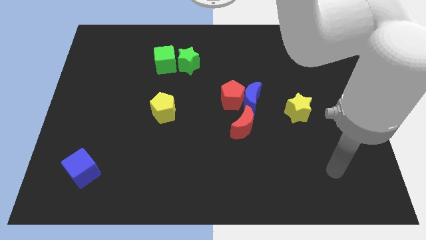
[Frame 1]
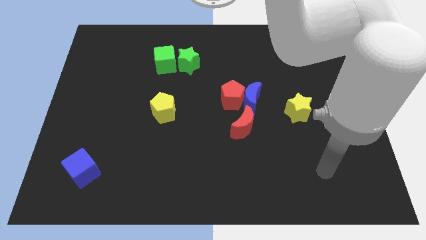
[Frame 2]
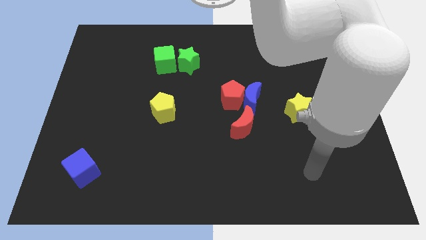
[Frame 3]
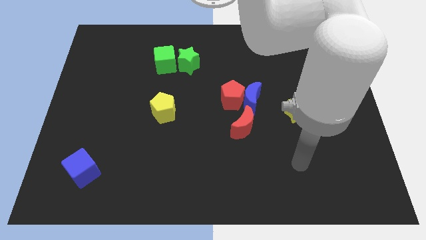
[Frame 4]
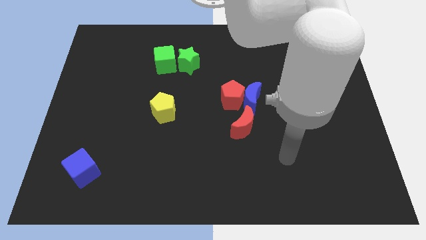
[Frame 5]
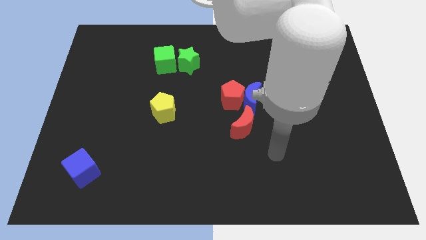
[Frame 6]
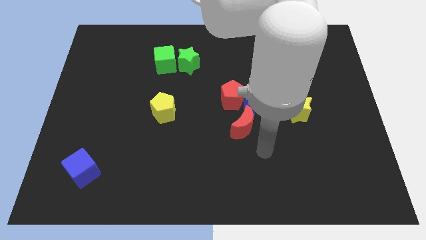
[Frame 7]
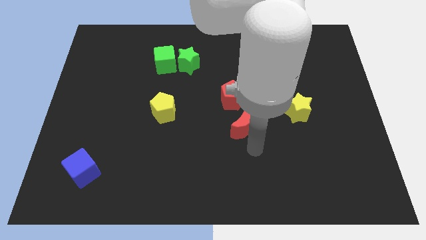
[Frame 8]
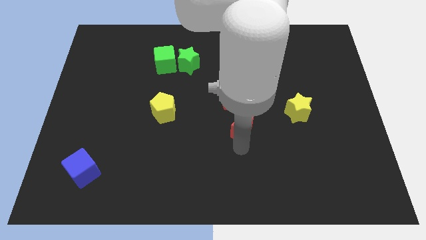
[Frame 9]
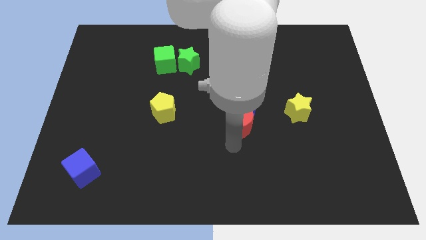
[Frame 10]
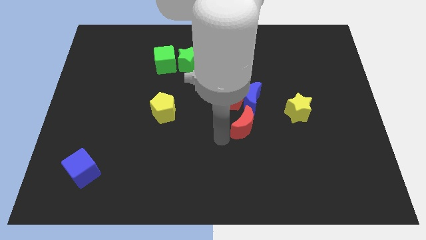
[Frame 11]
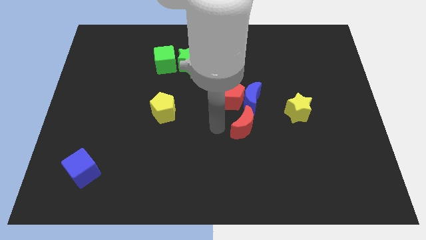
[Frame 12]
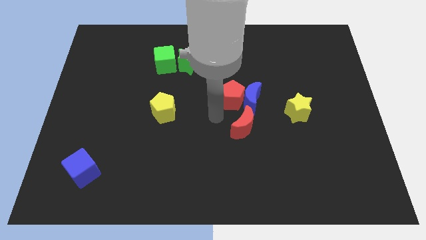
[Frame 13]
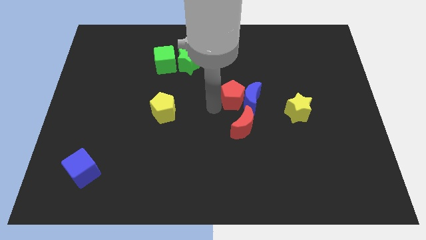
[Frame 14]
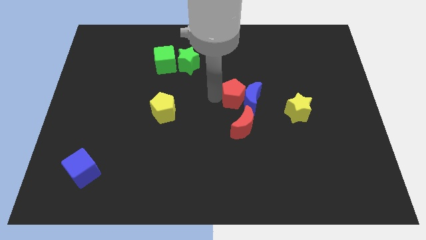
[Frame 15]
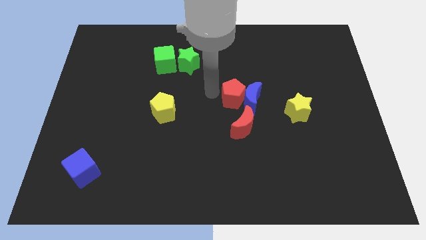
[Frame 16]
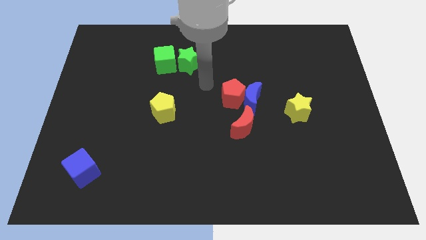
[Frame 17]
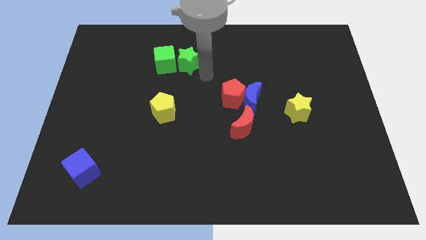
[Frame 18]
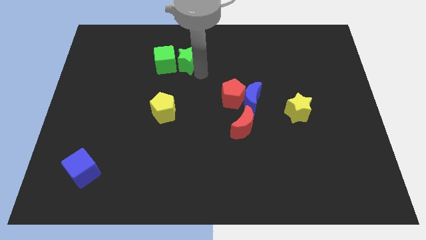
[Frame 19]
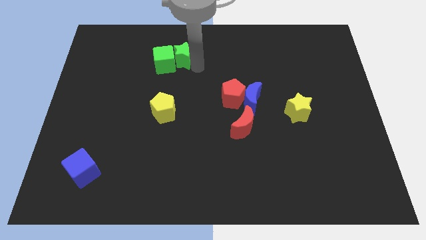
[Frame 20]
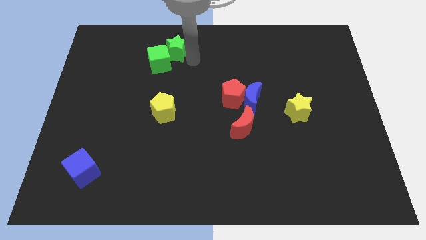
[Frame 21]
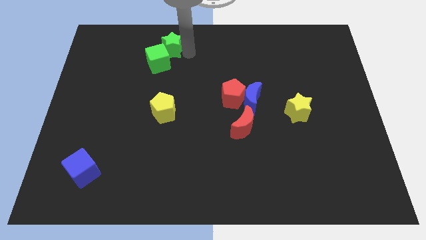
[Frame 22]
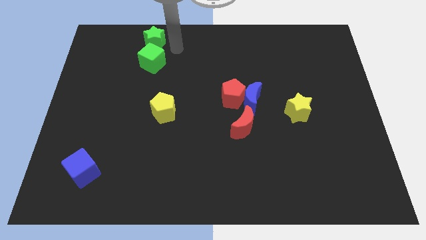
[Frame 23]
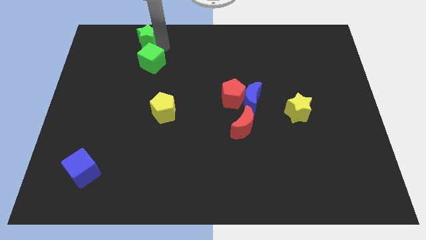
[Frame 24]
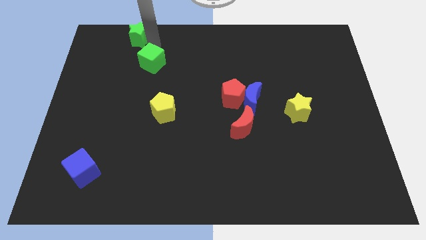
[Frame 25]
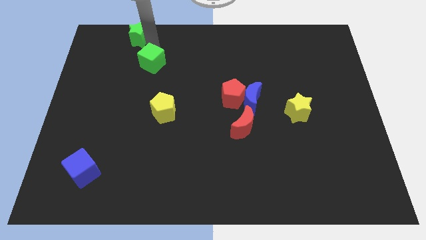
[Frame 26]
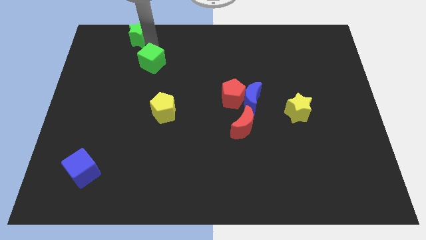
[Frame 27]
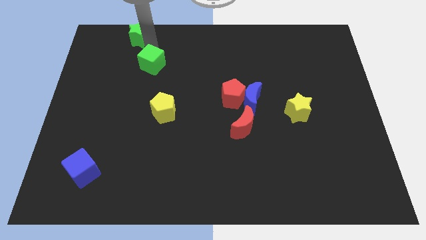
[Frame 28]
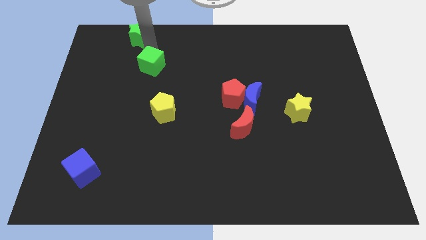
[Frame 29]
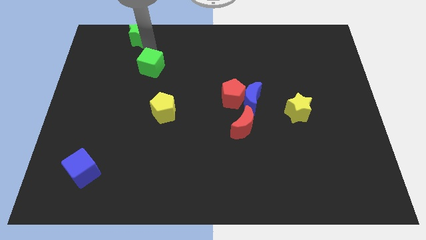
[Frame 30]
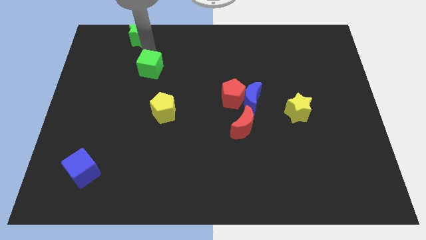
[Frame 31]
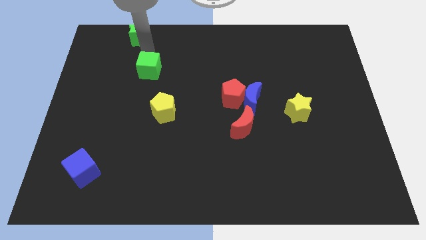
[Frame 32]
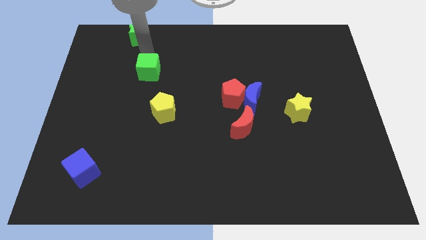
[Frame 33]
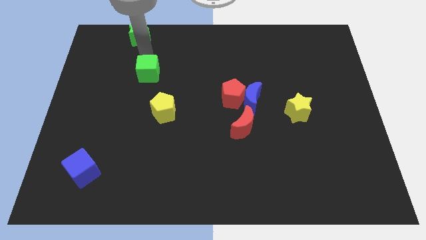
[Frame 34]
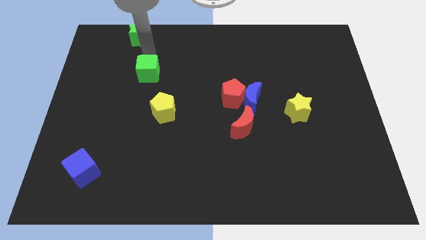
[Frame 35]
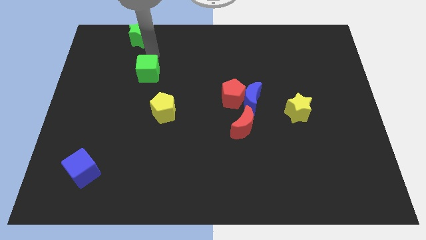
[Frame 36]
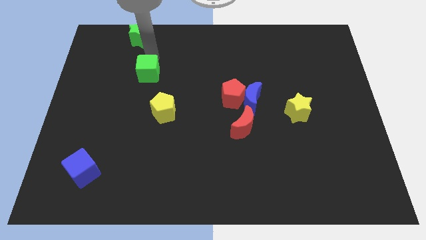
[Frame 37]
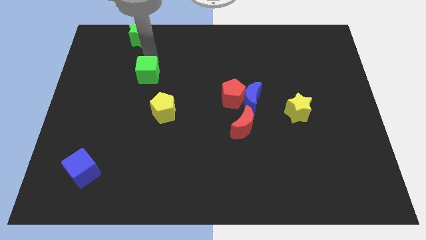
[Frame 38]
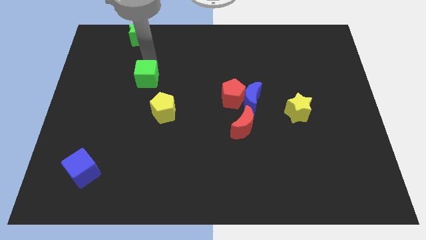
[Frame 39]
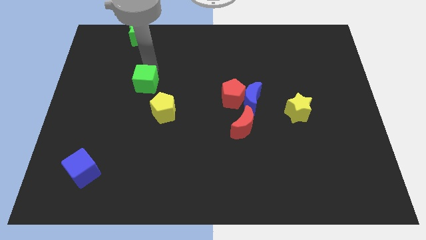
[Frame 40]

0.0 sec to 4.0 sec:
push the green cube downwards and to the left a bit

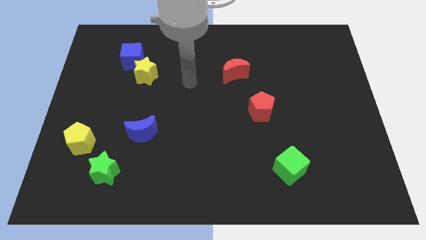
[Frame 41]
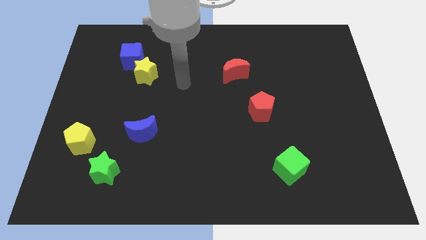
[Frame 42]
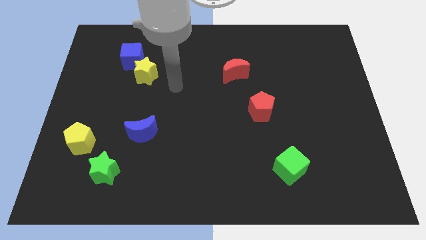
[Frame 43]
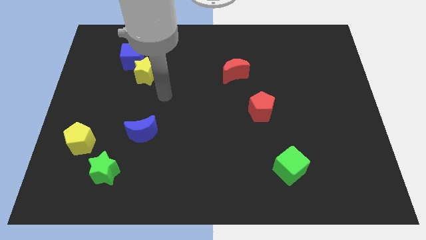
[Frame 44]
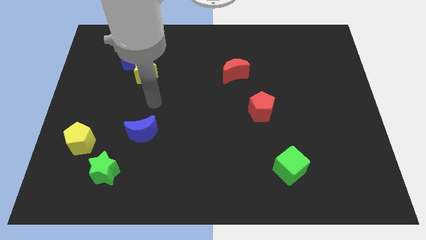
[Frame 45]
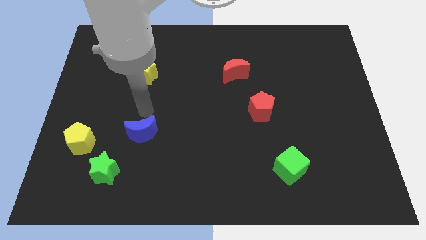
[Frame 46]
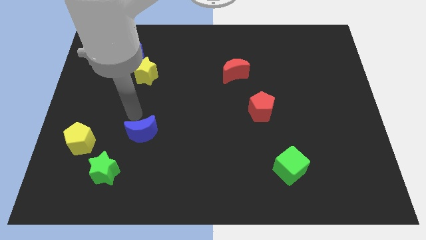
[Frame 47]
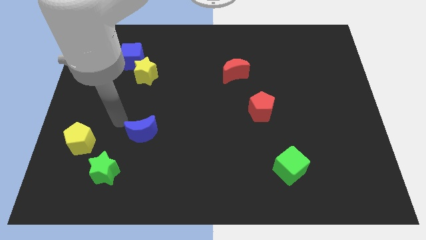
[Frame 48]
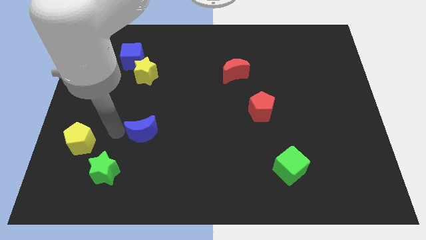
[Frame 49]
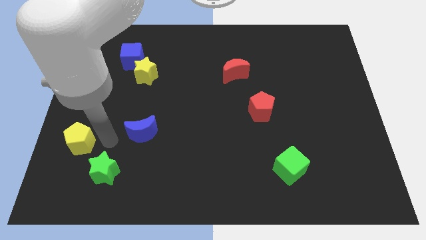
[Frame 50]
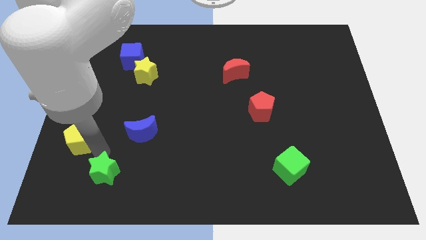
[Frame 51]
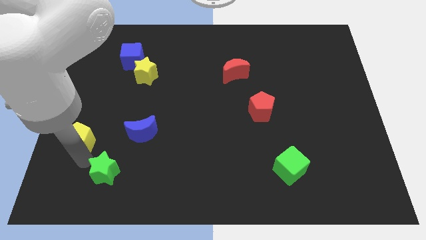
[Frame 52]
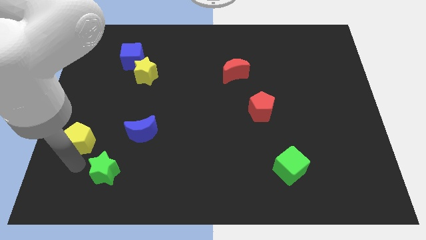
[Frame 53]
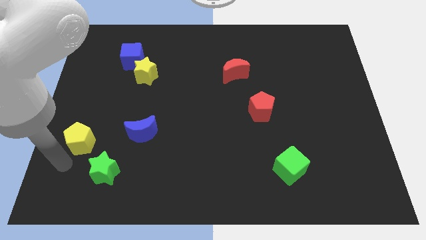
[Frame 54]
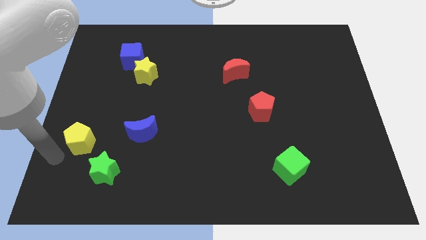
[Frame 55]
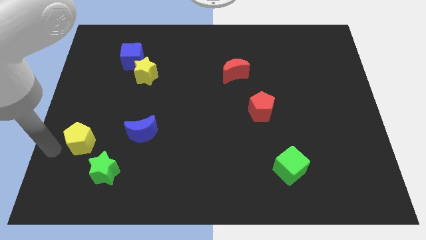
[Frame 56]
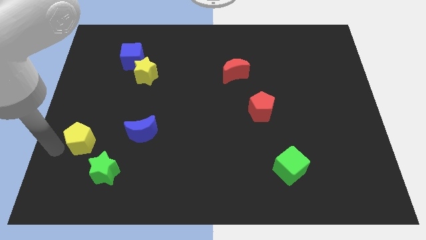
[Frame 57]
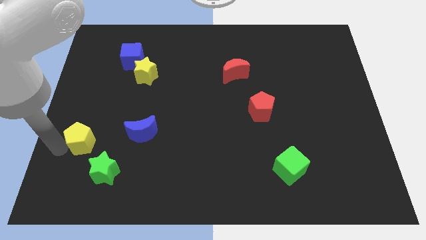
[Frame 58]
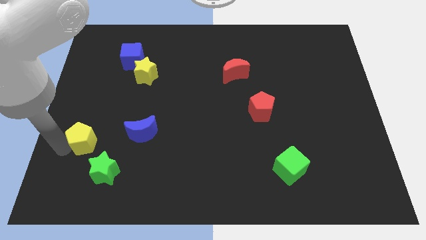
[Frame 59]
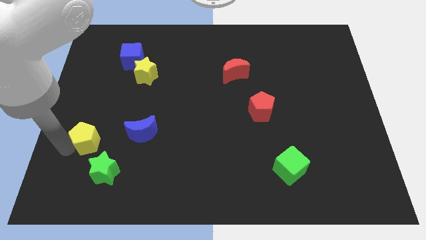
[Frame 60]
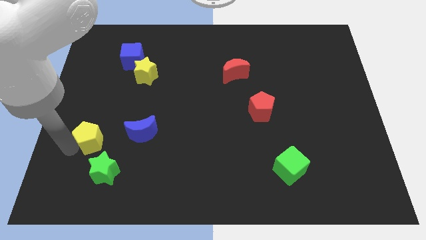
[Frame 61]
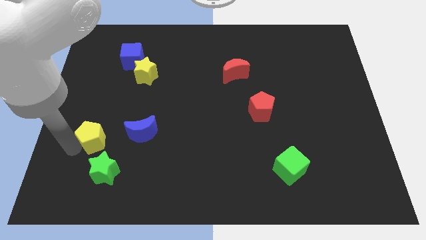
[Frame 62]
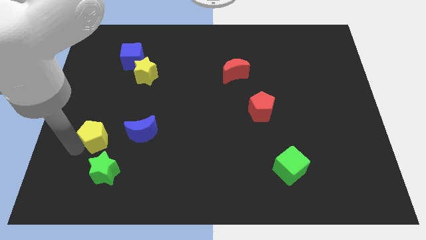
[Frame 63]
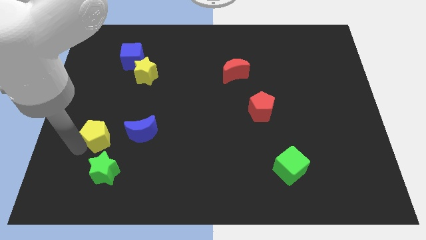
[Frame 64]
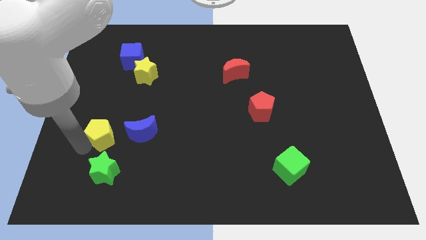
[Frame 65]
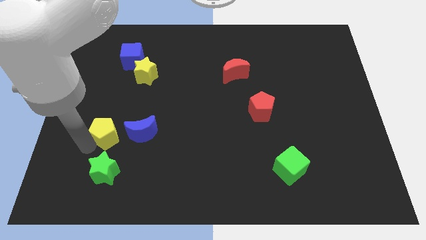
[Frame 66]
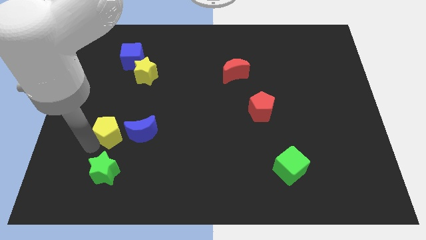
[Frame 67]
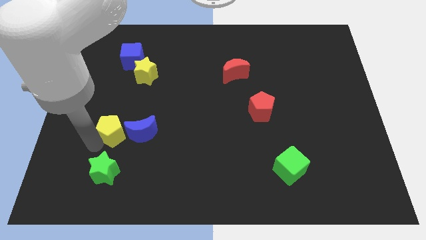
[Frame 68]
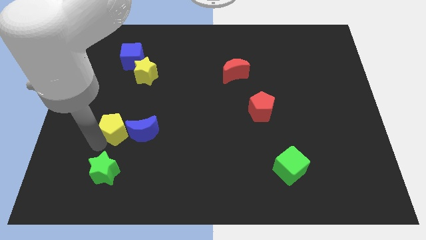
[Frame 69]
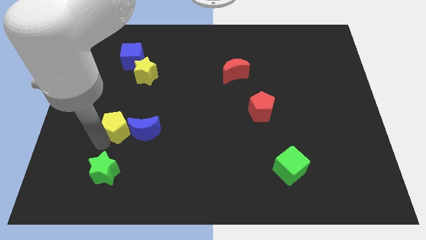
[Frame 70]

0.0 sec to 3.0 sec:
push the yellow pentagon upwards and to the right a little bit

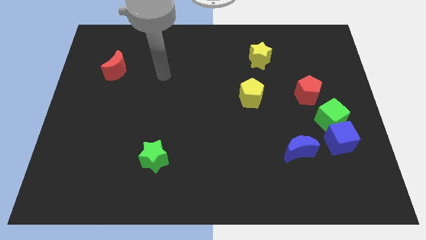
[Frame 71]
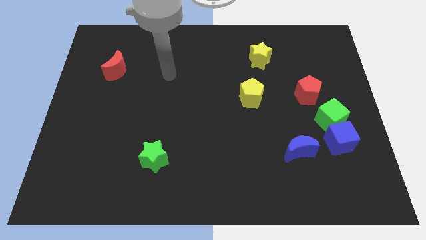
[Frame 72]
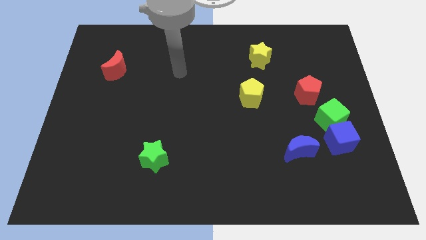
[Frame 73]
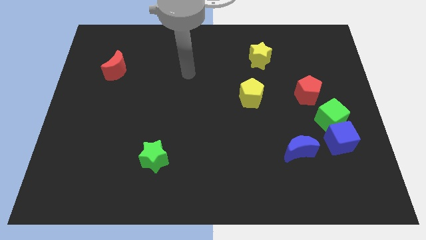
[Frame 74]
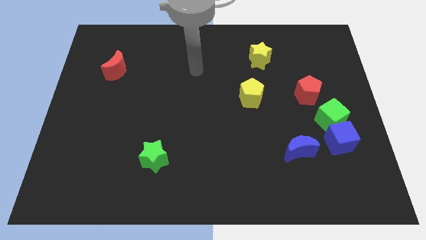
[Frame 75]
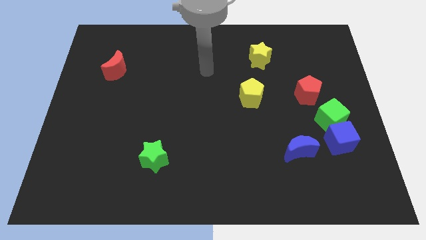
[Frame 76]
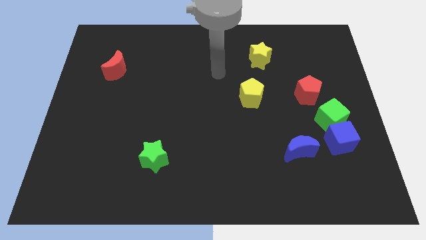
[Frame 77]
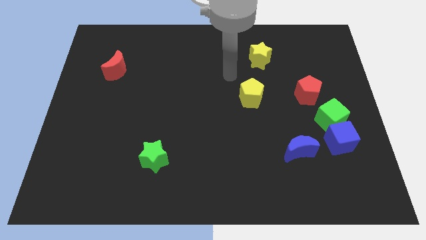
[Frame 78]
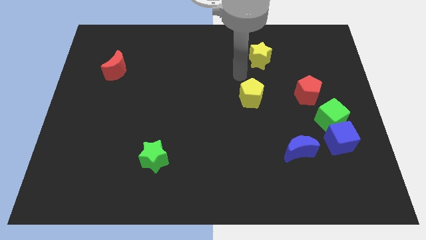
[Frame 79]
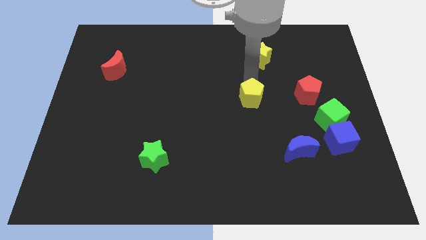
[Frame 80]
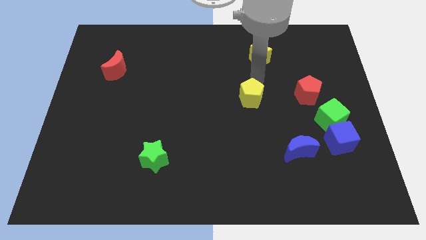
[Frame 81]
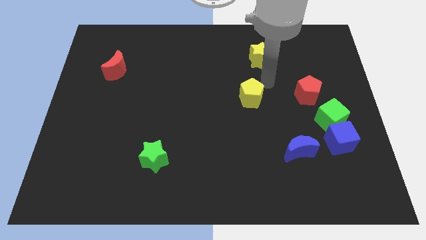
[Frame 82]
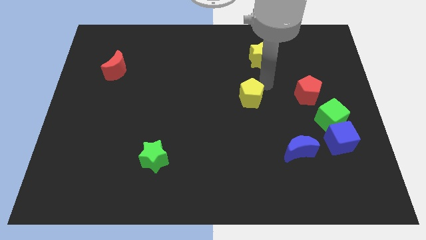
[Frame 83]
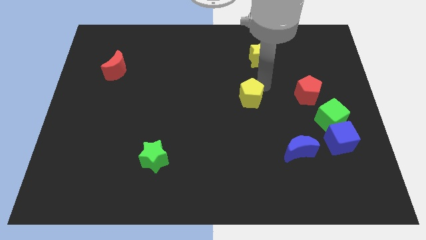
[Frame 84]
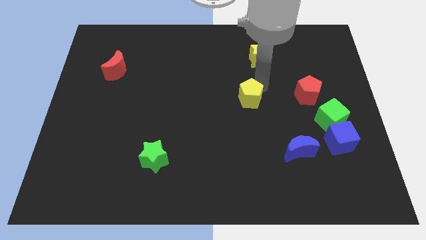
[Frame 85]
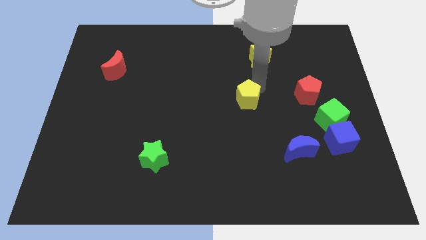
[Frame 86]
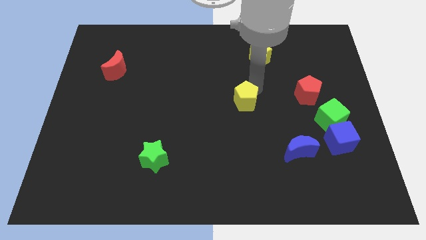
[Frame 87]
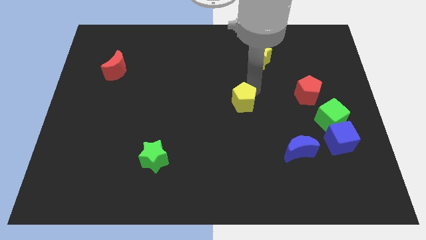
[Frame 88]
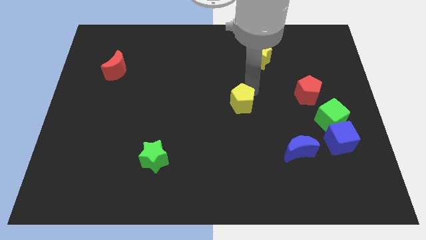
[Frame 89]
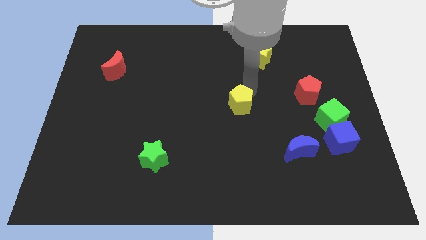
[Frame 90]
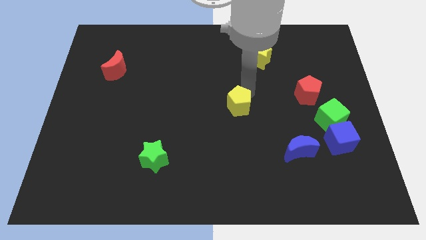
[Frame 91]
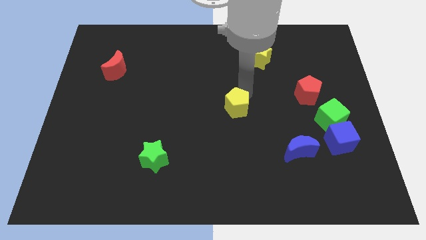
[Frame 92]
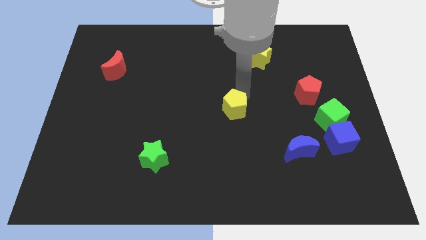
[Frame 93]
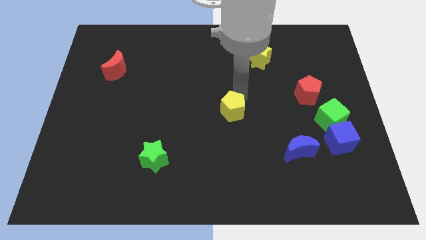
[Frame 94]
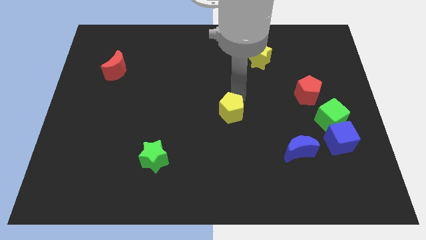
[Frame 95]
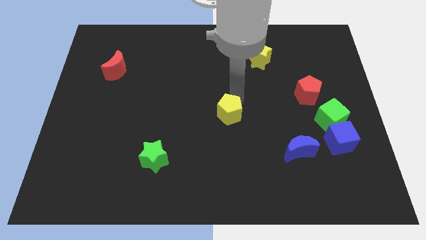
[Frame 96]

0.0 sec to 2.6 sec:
move the yellow pentagon diagonally downwards and to the left a little
